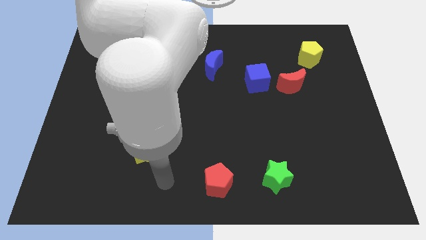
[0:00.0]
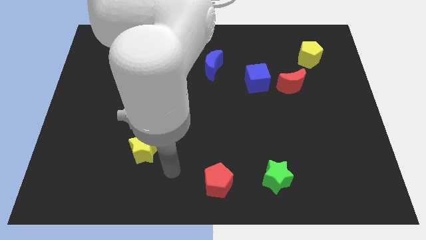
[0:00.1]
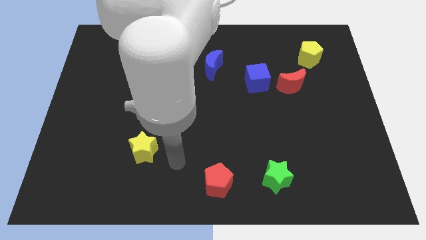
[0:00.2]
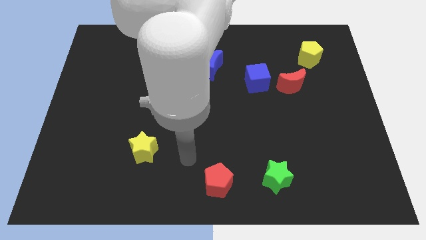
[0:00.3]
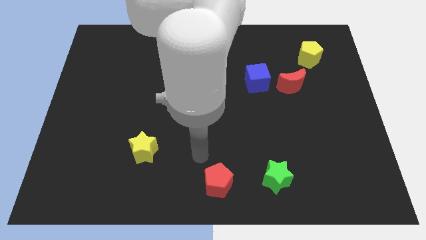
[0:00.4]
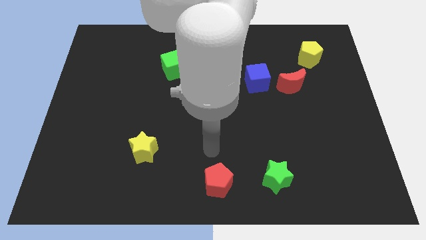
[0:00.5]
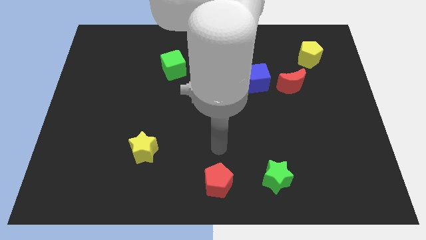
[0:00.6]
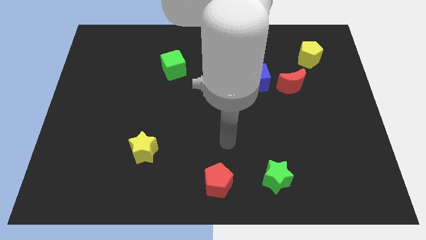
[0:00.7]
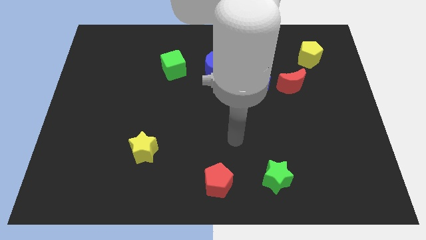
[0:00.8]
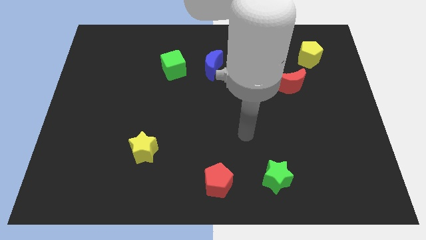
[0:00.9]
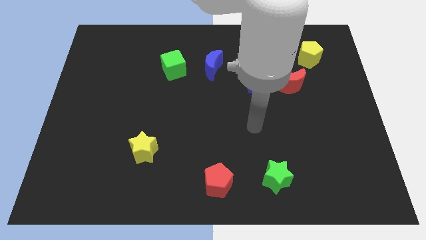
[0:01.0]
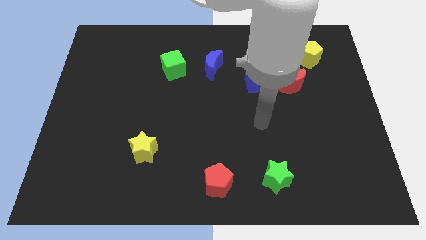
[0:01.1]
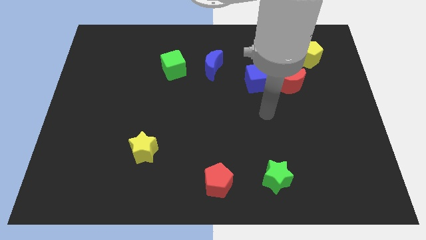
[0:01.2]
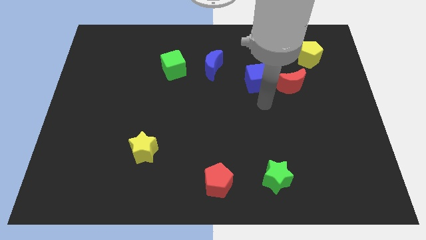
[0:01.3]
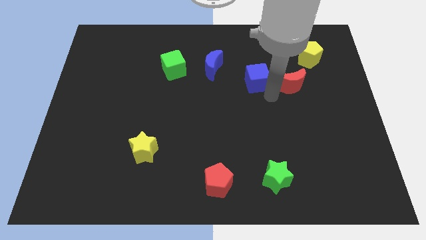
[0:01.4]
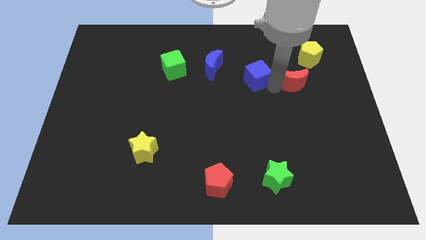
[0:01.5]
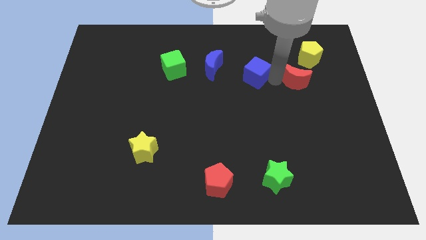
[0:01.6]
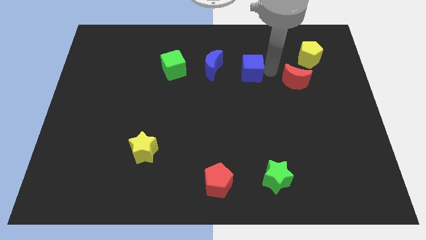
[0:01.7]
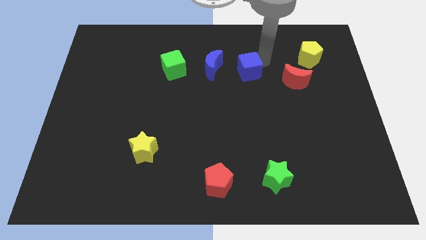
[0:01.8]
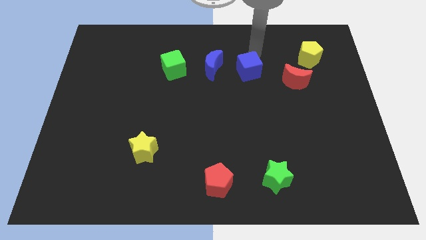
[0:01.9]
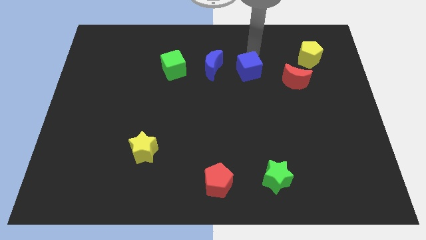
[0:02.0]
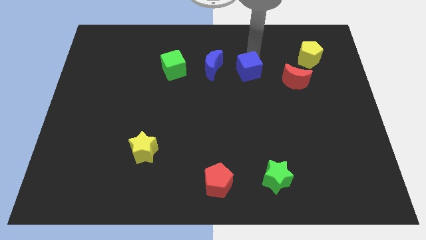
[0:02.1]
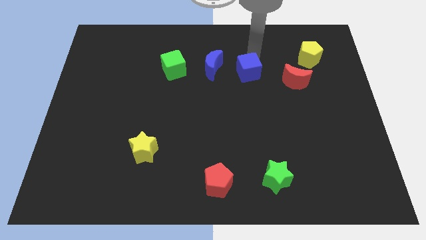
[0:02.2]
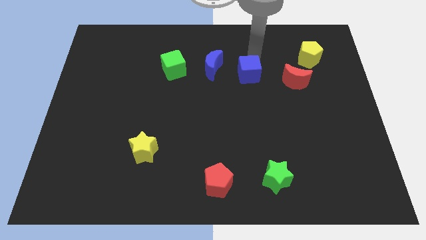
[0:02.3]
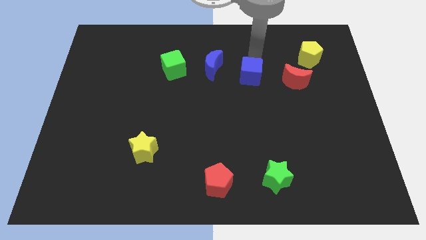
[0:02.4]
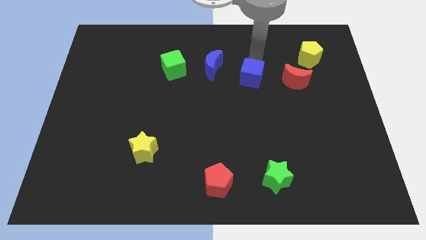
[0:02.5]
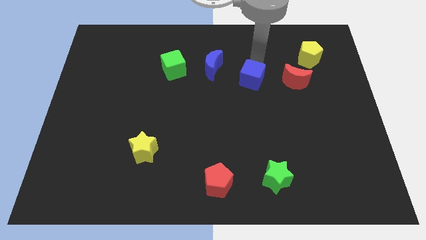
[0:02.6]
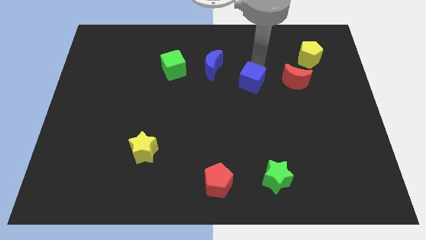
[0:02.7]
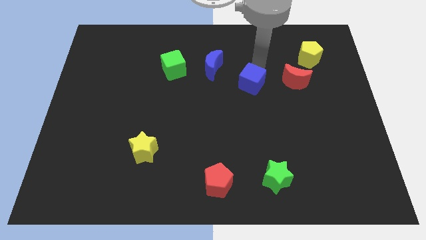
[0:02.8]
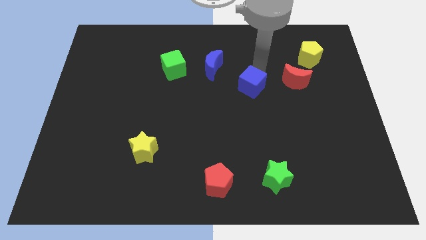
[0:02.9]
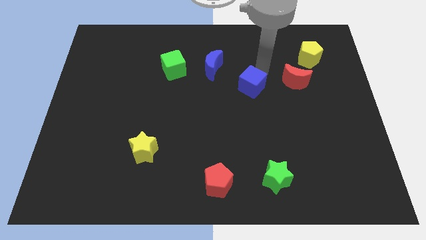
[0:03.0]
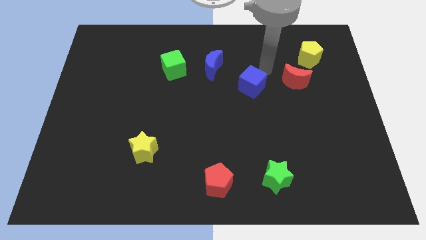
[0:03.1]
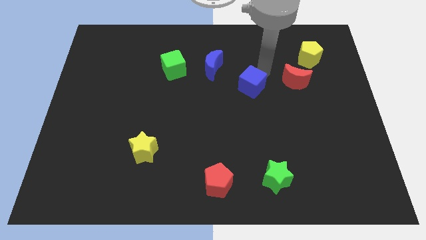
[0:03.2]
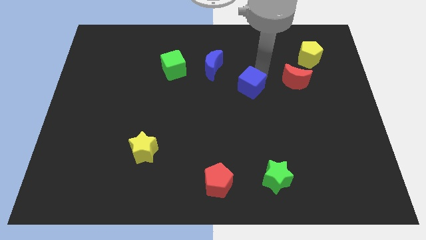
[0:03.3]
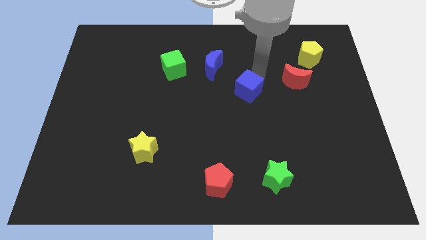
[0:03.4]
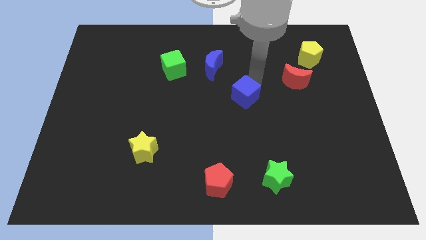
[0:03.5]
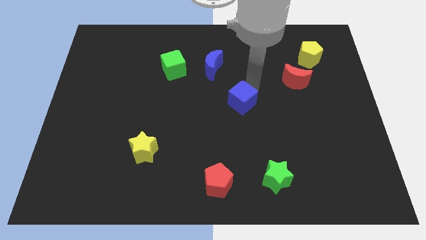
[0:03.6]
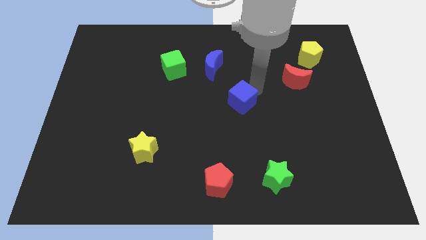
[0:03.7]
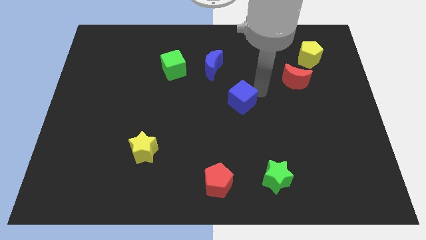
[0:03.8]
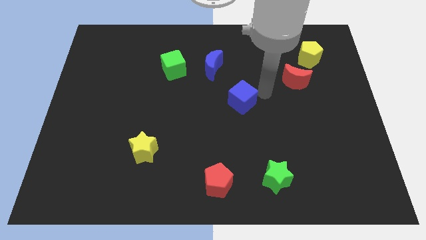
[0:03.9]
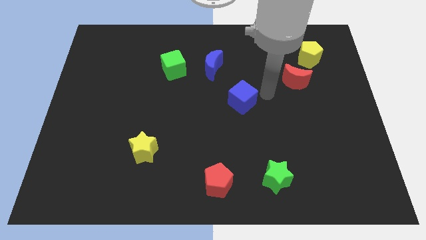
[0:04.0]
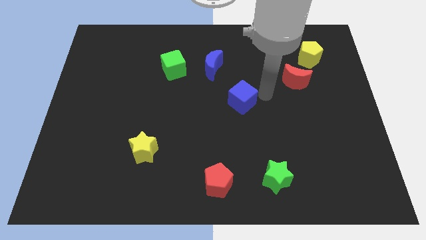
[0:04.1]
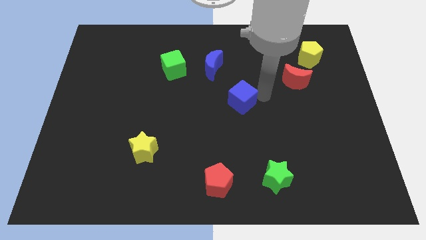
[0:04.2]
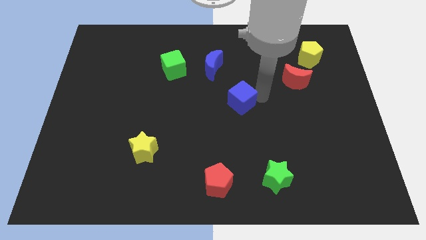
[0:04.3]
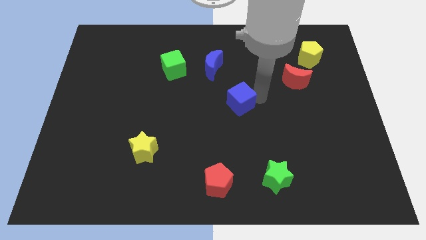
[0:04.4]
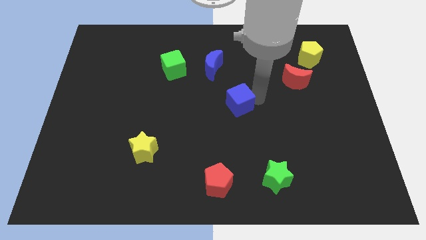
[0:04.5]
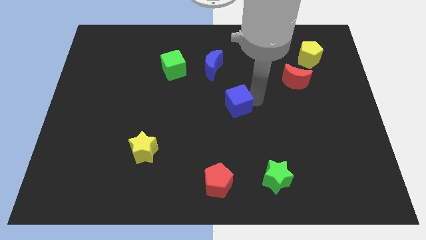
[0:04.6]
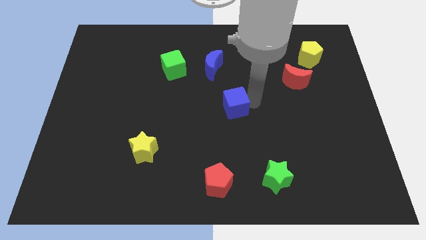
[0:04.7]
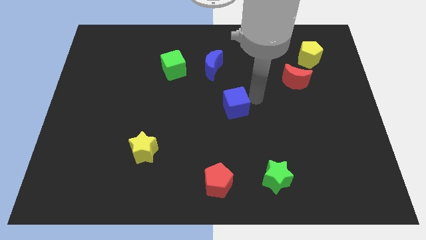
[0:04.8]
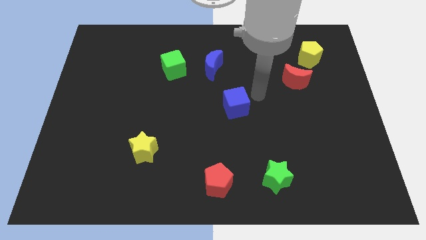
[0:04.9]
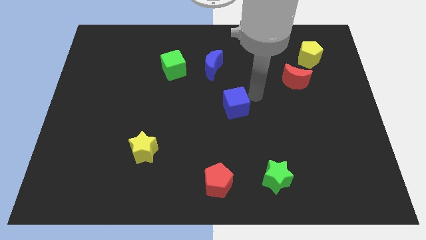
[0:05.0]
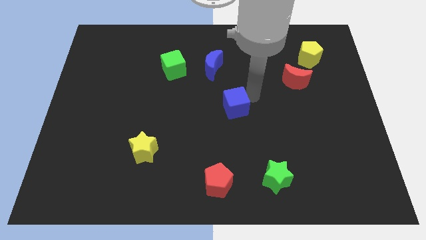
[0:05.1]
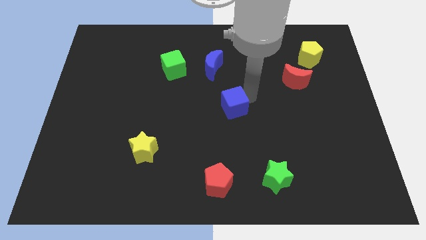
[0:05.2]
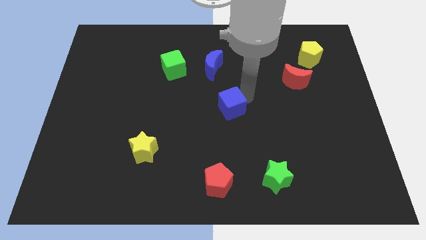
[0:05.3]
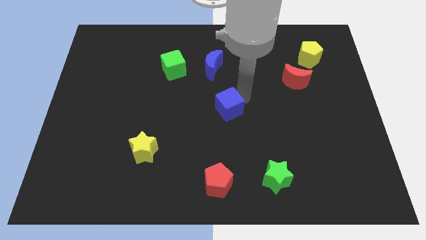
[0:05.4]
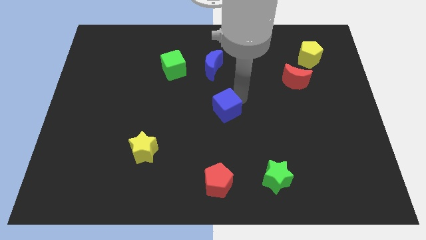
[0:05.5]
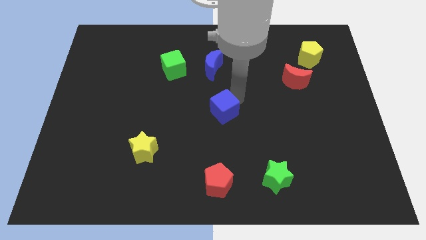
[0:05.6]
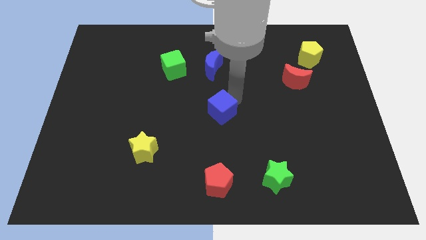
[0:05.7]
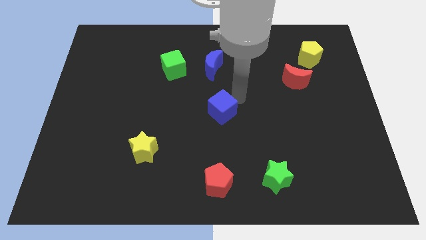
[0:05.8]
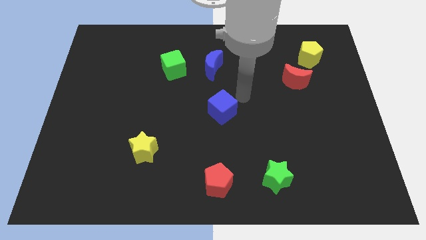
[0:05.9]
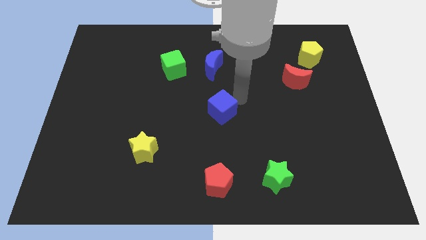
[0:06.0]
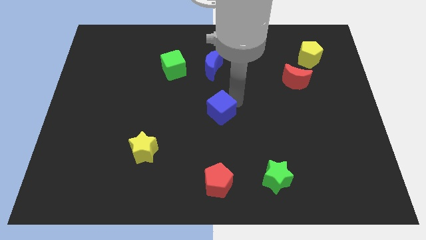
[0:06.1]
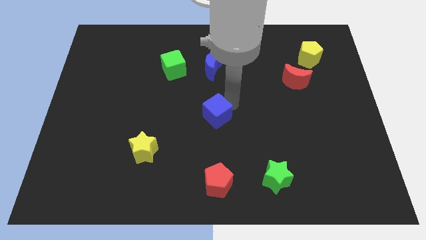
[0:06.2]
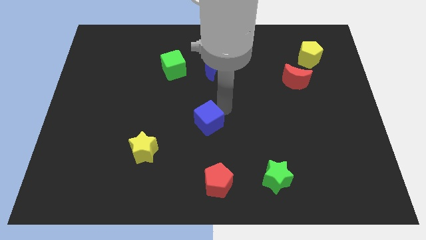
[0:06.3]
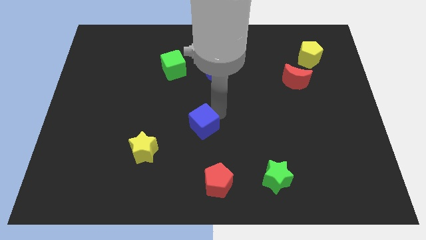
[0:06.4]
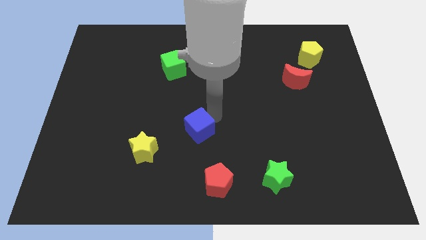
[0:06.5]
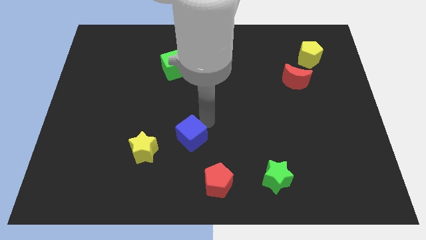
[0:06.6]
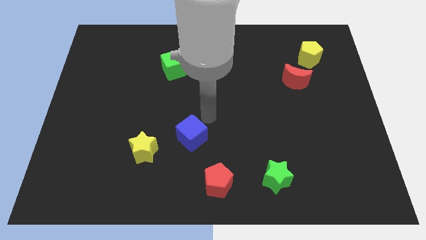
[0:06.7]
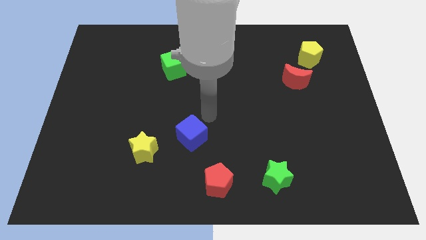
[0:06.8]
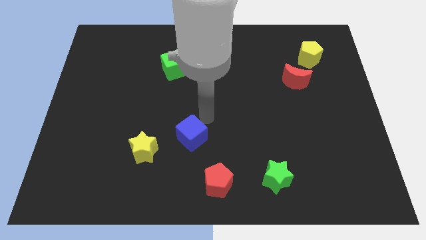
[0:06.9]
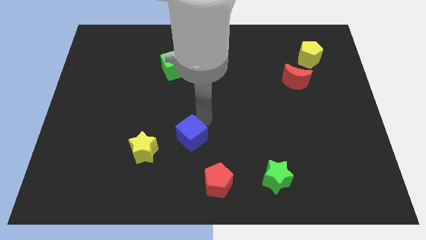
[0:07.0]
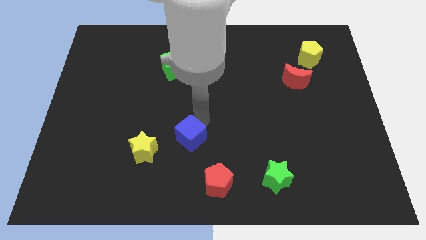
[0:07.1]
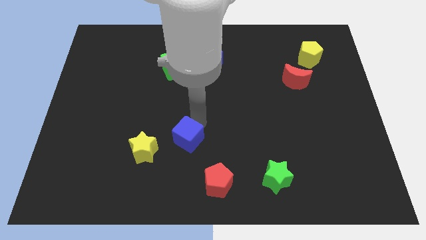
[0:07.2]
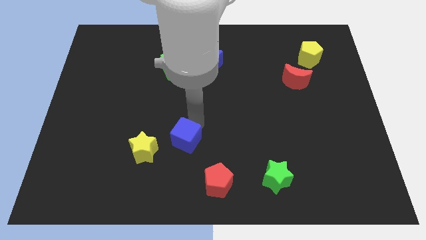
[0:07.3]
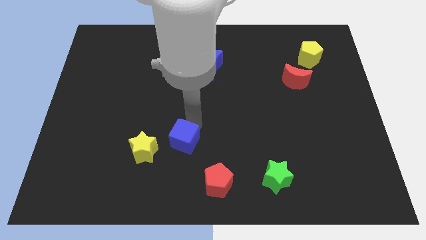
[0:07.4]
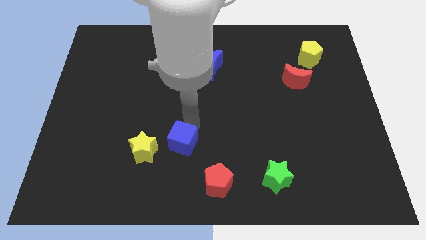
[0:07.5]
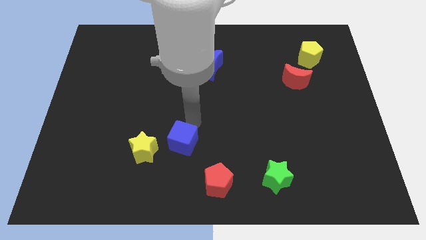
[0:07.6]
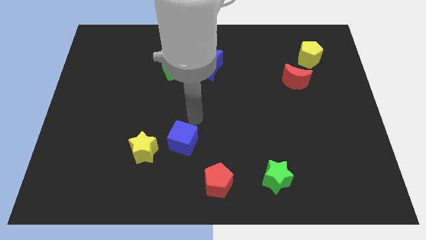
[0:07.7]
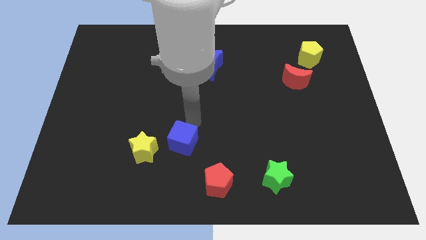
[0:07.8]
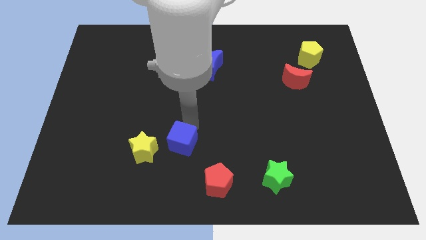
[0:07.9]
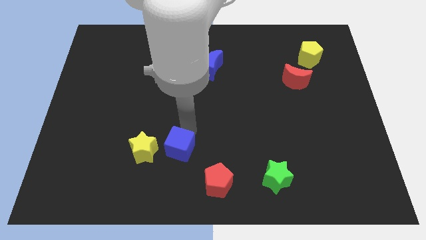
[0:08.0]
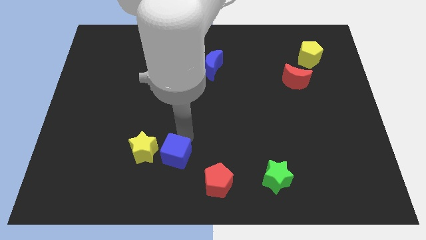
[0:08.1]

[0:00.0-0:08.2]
put the blue cube diagonally down and to the right of the yellow star
